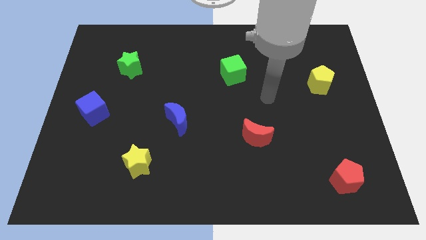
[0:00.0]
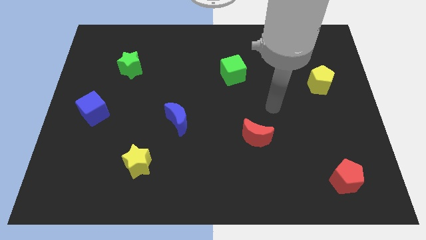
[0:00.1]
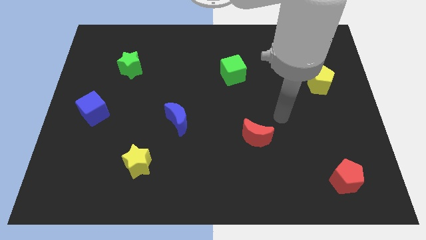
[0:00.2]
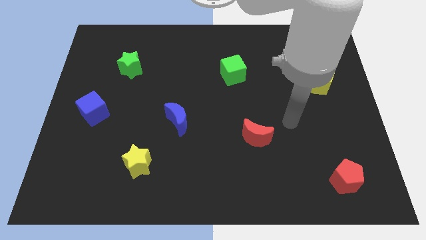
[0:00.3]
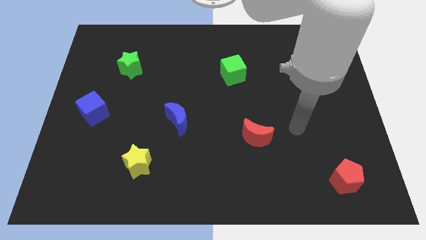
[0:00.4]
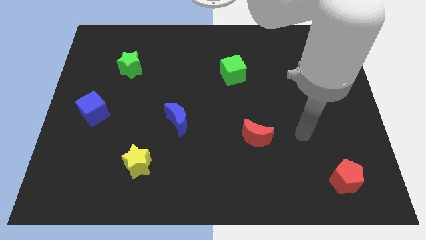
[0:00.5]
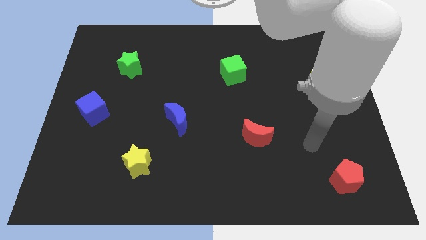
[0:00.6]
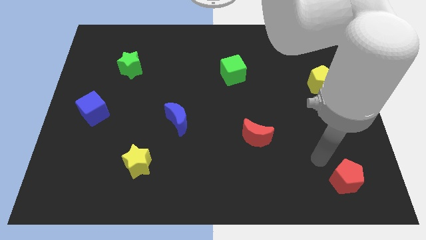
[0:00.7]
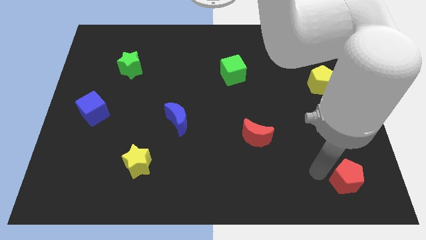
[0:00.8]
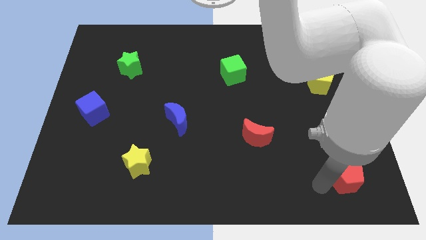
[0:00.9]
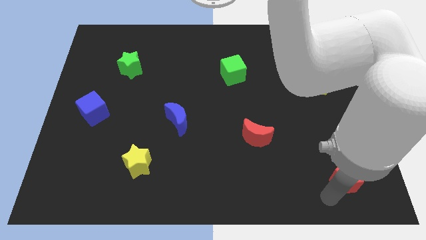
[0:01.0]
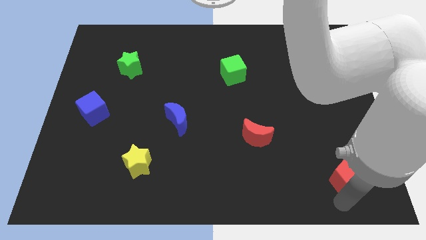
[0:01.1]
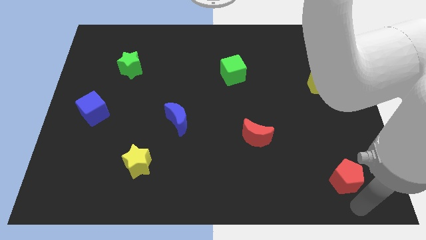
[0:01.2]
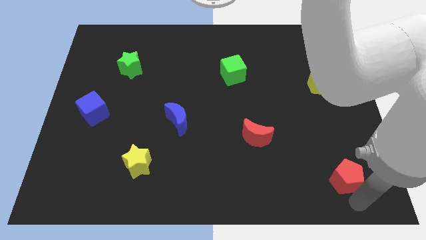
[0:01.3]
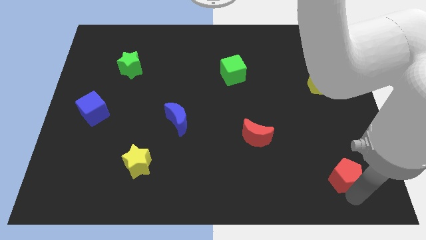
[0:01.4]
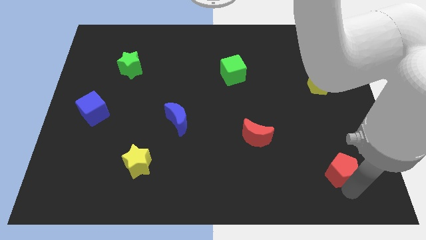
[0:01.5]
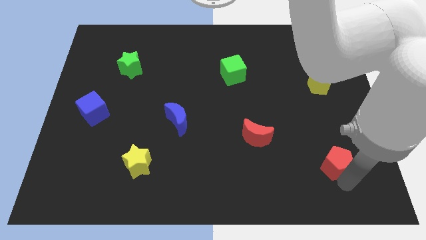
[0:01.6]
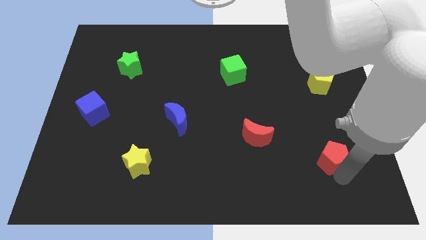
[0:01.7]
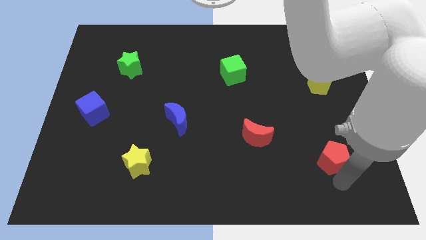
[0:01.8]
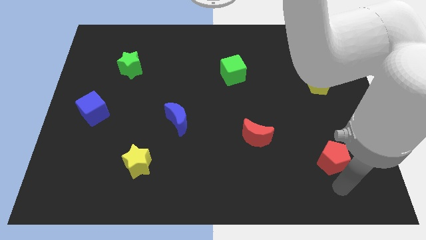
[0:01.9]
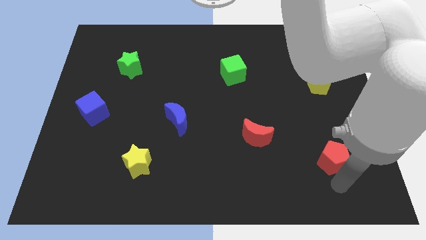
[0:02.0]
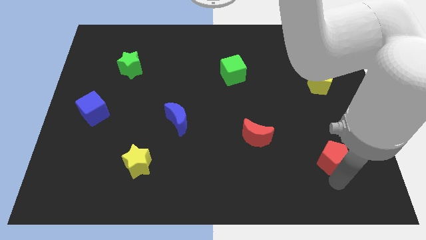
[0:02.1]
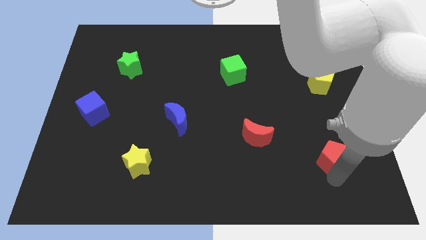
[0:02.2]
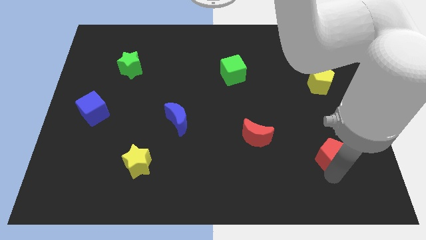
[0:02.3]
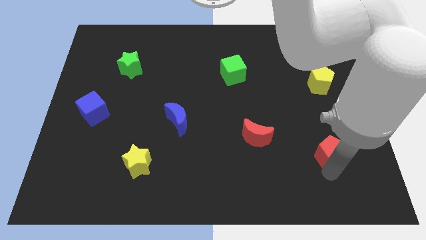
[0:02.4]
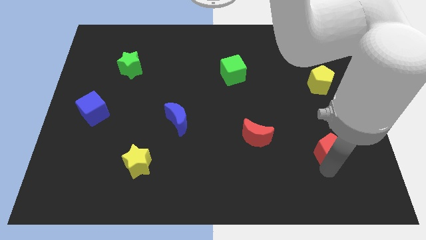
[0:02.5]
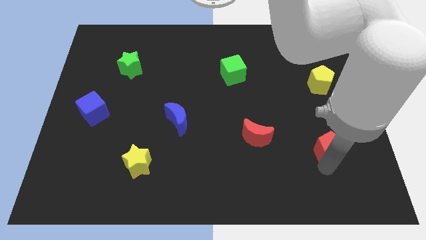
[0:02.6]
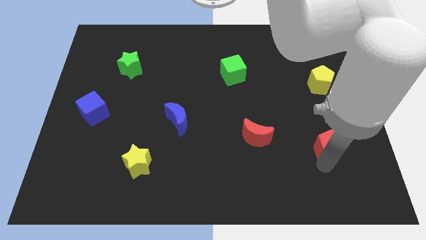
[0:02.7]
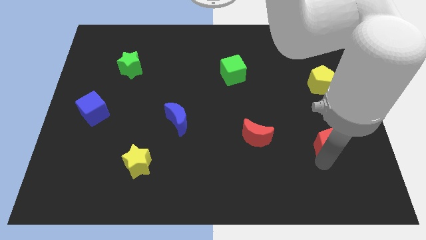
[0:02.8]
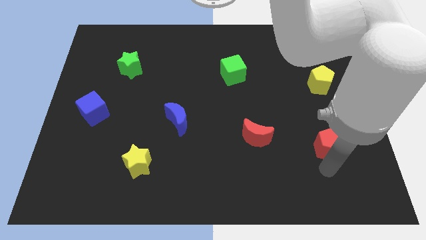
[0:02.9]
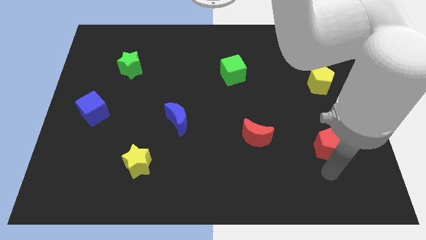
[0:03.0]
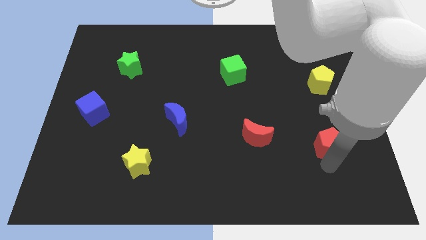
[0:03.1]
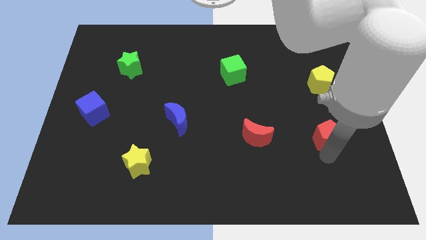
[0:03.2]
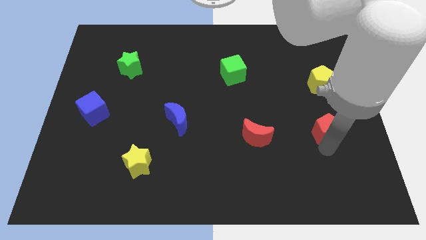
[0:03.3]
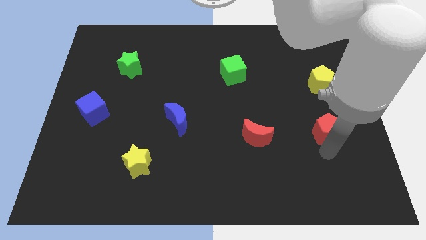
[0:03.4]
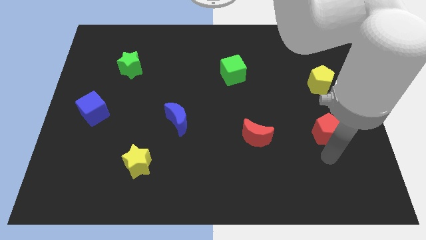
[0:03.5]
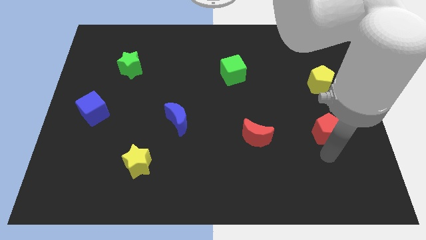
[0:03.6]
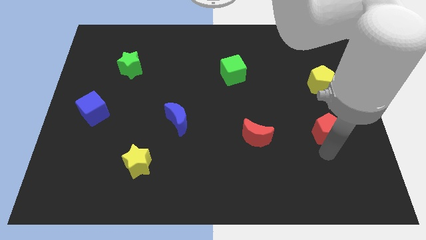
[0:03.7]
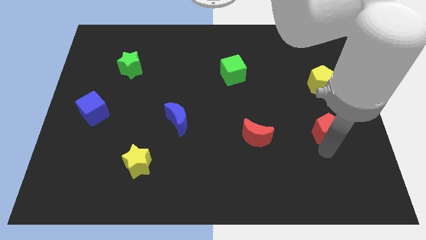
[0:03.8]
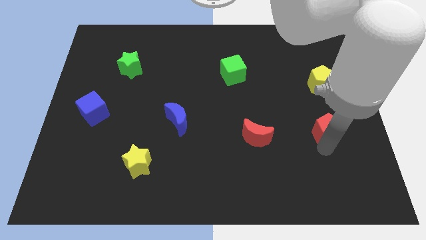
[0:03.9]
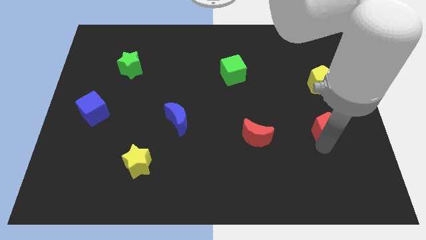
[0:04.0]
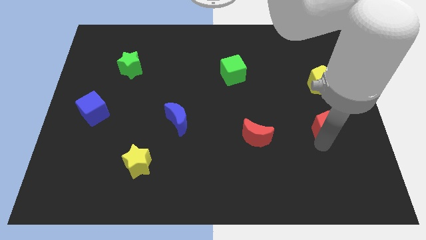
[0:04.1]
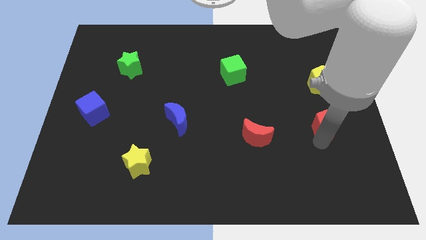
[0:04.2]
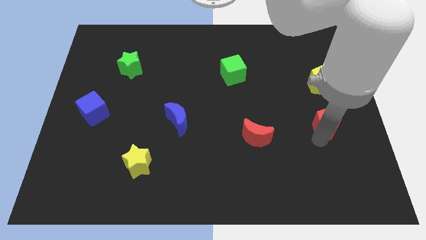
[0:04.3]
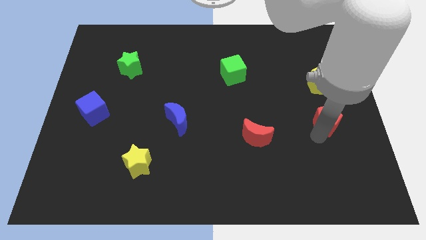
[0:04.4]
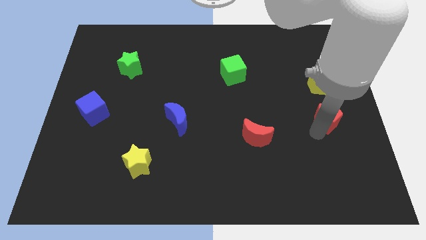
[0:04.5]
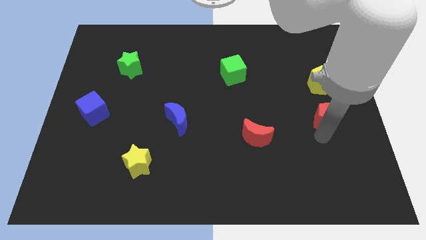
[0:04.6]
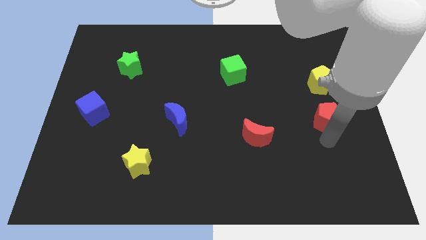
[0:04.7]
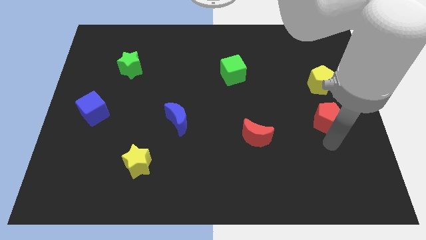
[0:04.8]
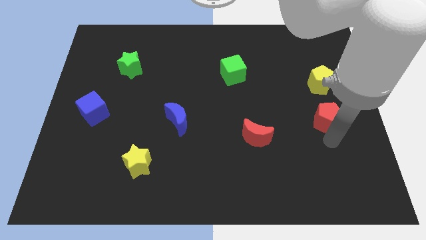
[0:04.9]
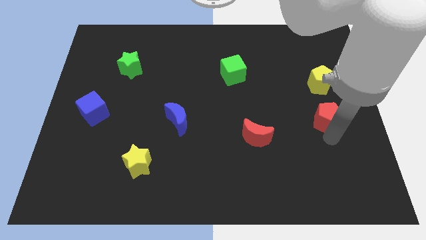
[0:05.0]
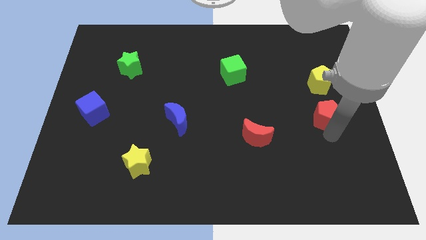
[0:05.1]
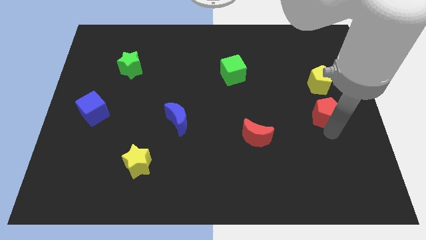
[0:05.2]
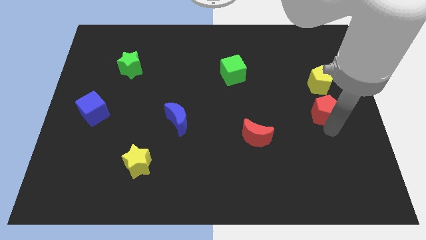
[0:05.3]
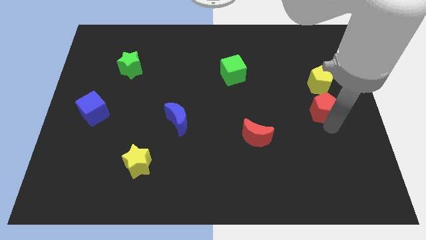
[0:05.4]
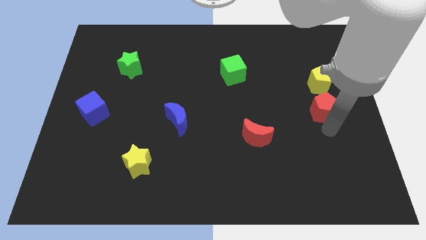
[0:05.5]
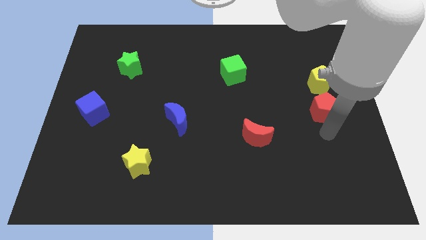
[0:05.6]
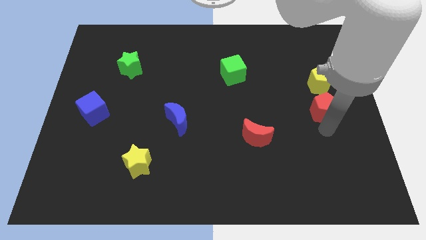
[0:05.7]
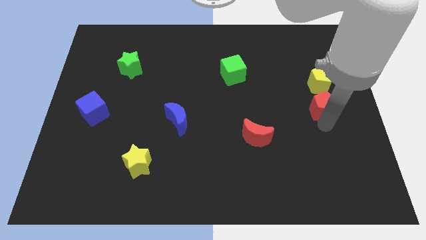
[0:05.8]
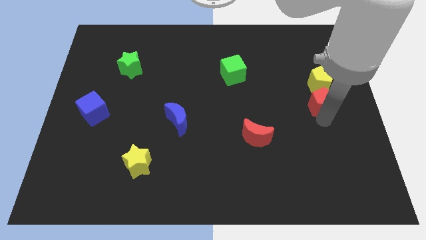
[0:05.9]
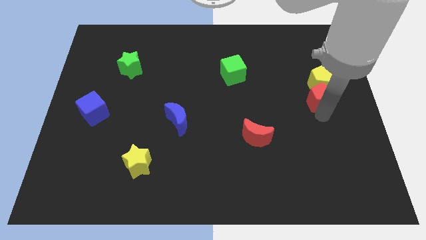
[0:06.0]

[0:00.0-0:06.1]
move the red pentagon close to the yellow pentagon

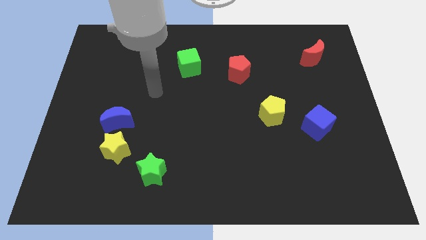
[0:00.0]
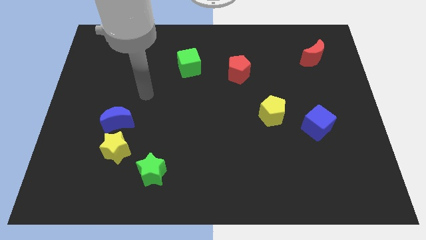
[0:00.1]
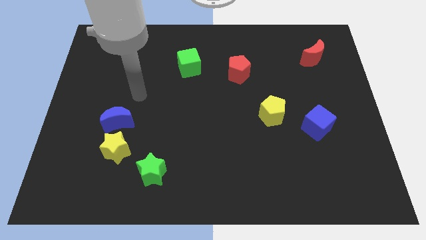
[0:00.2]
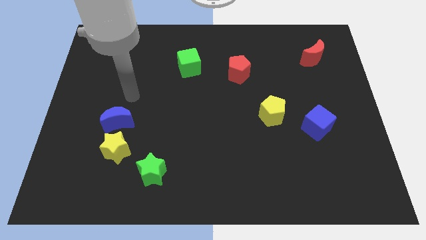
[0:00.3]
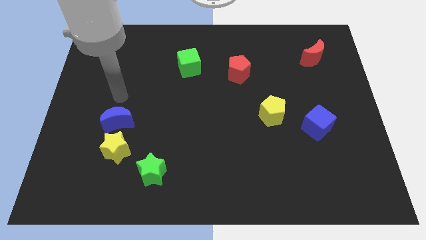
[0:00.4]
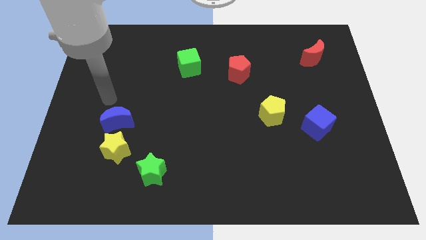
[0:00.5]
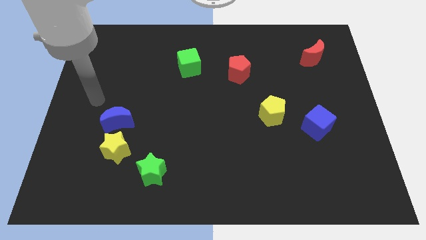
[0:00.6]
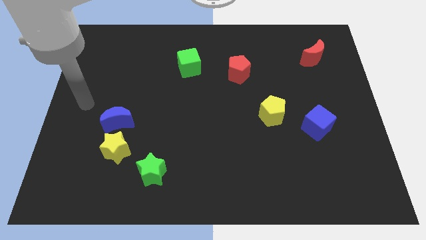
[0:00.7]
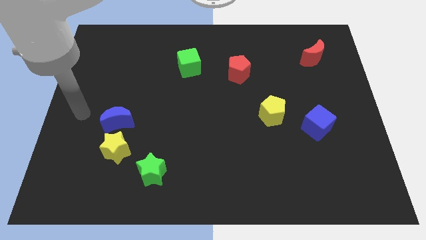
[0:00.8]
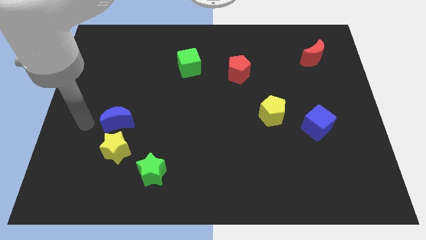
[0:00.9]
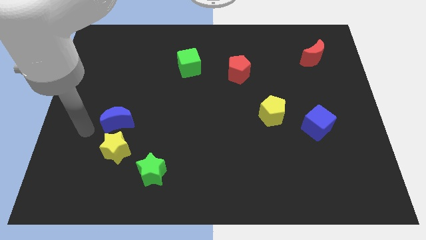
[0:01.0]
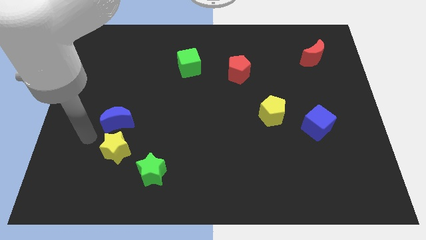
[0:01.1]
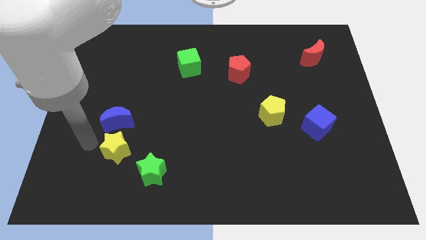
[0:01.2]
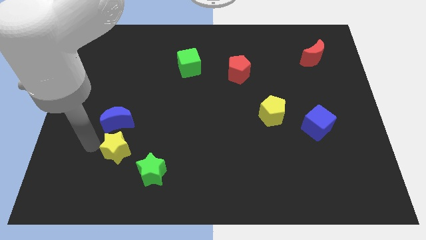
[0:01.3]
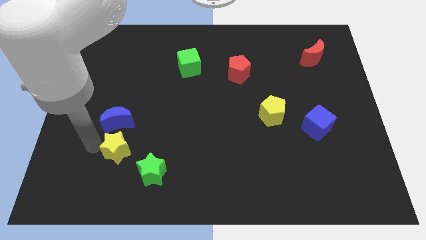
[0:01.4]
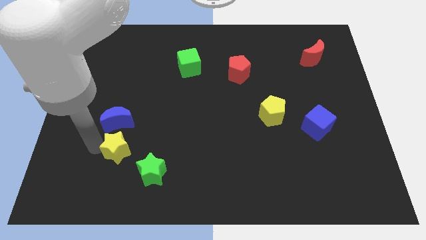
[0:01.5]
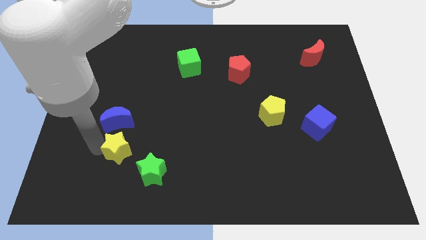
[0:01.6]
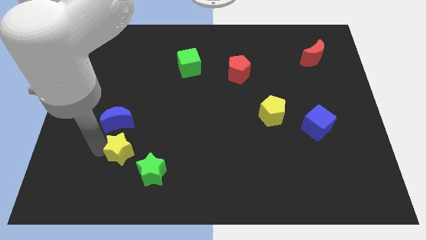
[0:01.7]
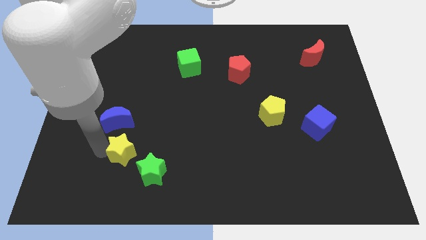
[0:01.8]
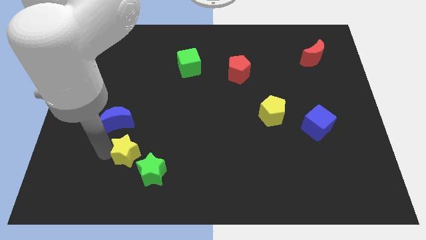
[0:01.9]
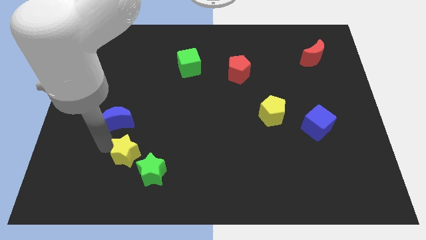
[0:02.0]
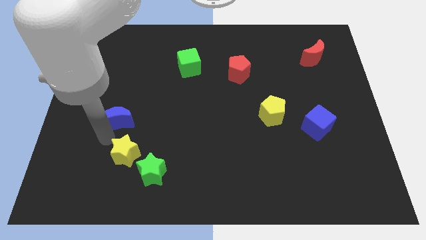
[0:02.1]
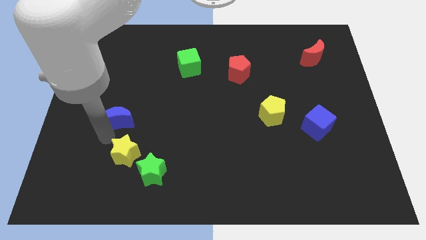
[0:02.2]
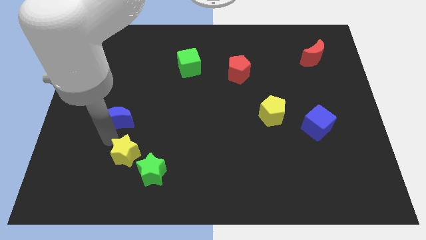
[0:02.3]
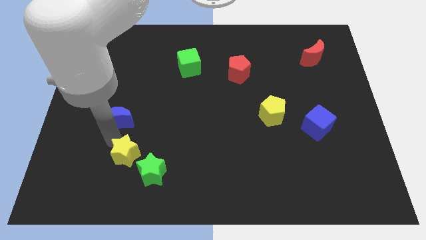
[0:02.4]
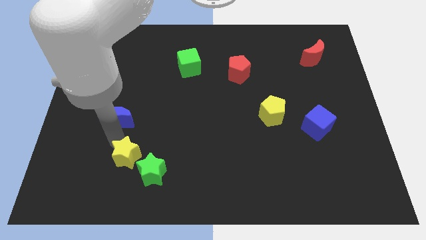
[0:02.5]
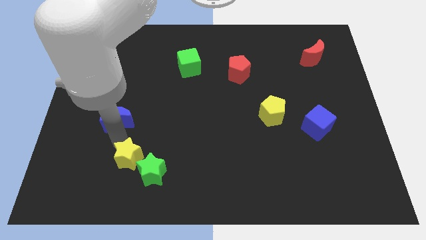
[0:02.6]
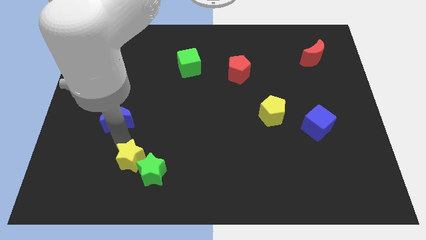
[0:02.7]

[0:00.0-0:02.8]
slide the yellow star next to the green star
